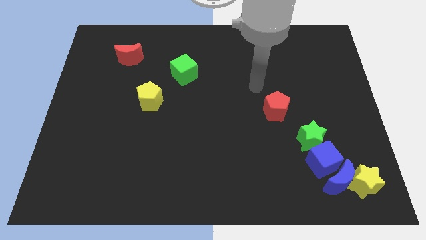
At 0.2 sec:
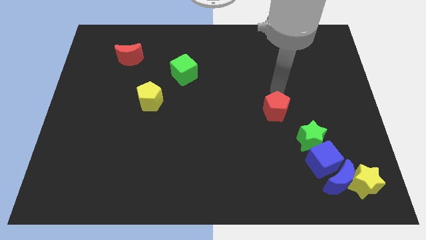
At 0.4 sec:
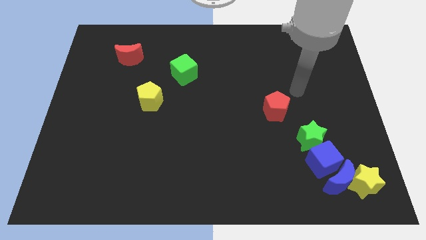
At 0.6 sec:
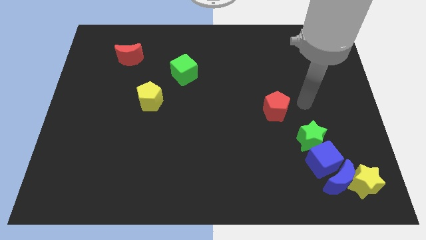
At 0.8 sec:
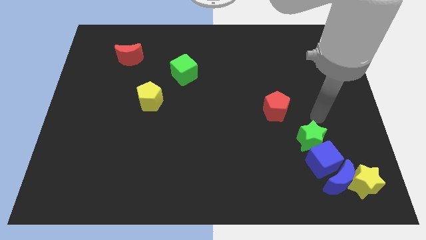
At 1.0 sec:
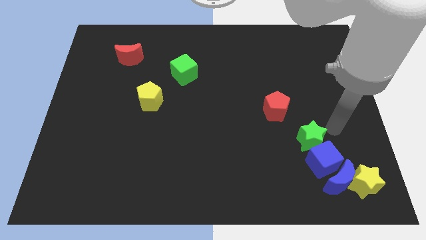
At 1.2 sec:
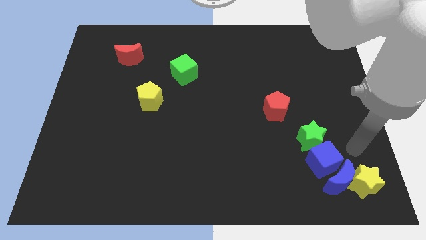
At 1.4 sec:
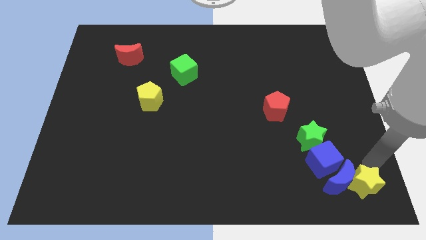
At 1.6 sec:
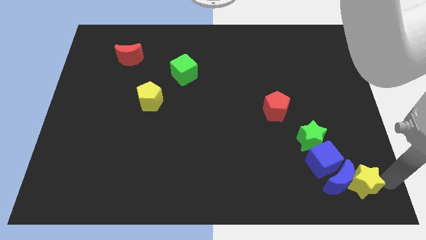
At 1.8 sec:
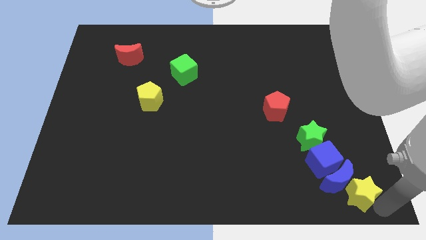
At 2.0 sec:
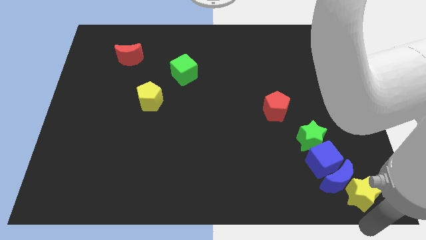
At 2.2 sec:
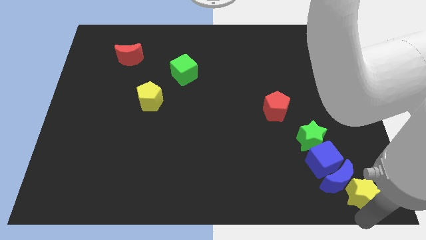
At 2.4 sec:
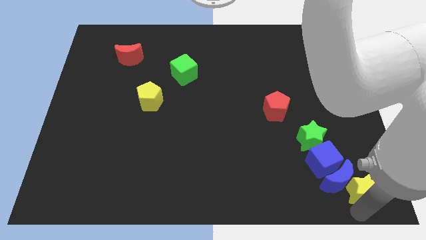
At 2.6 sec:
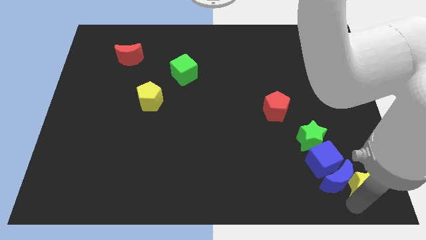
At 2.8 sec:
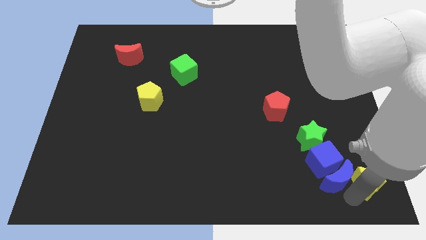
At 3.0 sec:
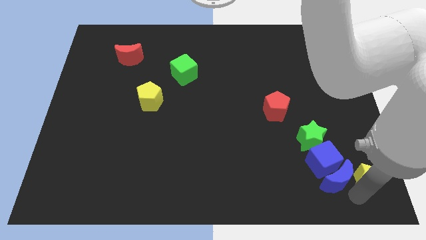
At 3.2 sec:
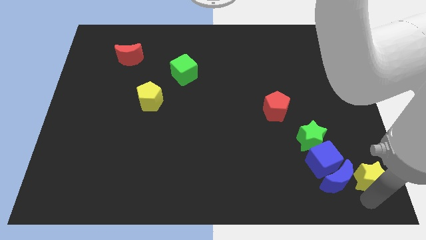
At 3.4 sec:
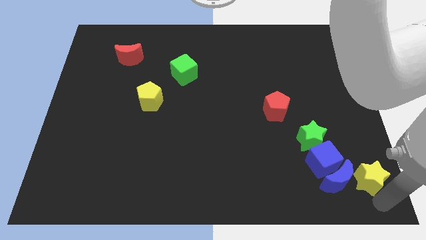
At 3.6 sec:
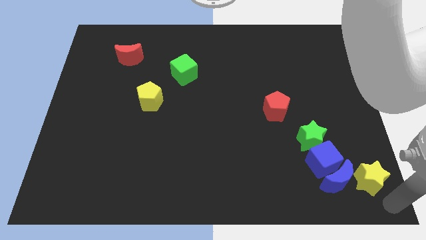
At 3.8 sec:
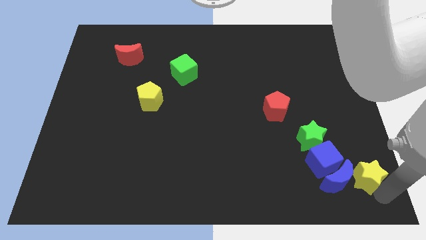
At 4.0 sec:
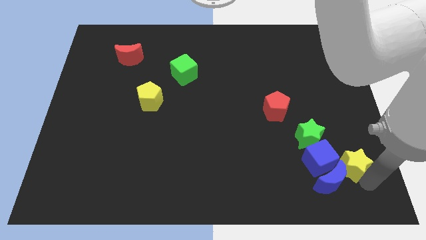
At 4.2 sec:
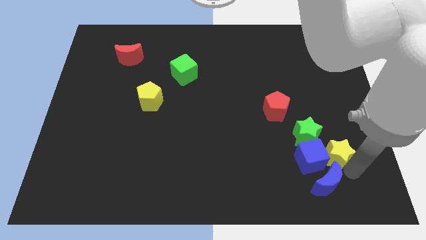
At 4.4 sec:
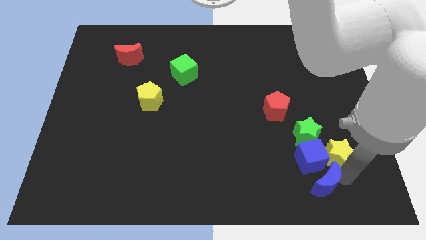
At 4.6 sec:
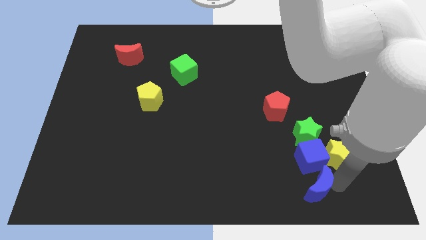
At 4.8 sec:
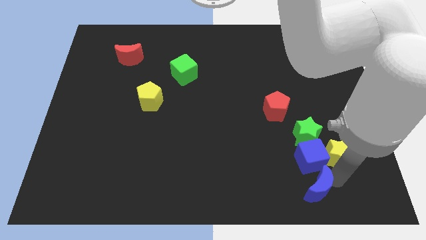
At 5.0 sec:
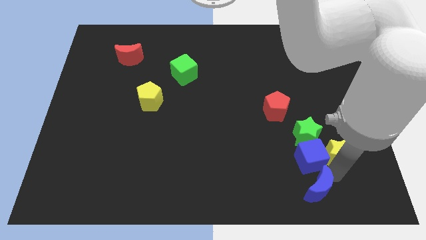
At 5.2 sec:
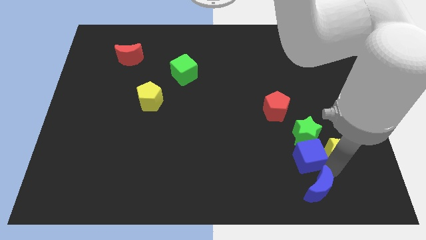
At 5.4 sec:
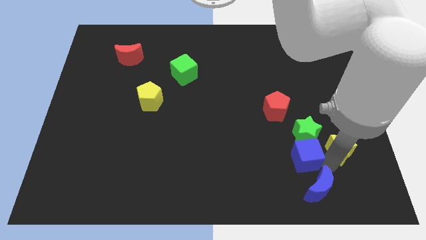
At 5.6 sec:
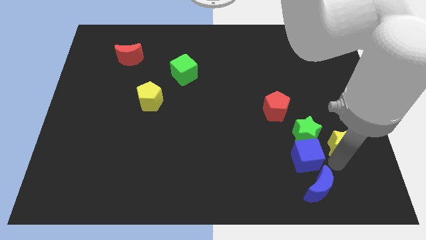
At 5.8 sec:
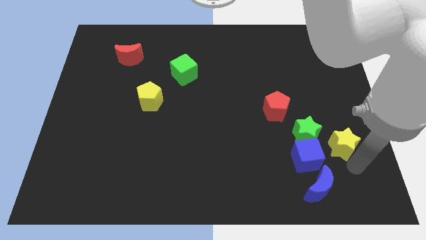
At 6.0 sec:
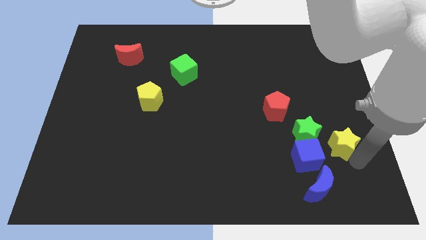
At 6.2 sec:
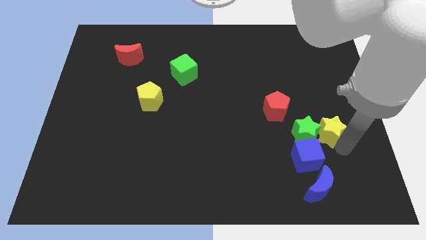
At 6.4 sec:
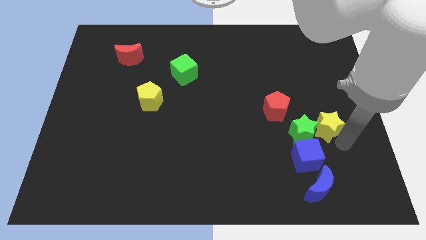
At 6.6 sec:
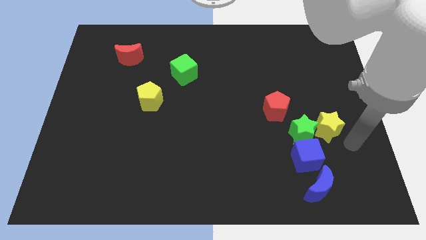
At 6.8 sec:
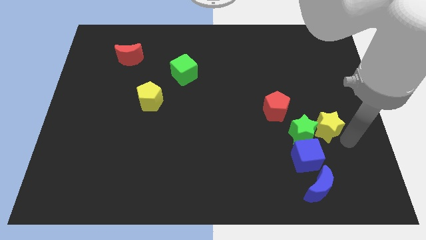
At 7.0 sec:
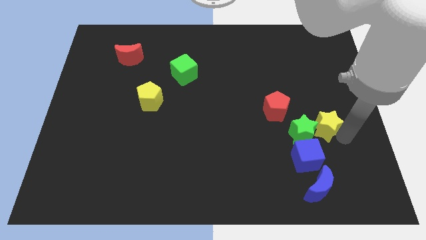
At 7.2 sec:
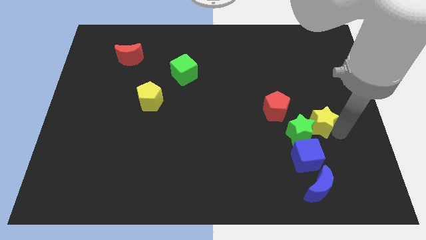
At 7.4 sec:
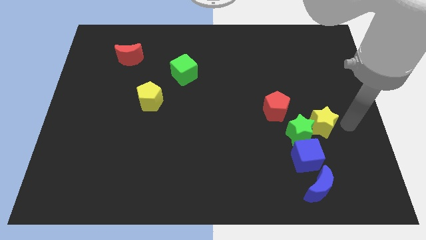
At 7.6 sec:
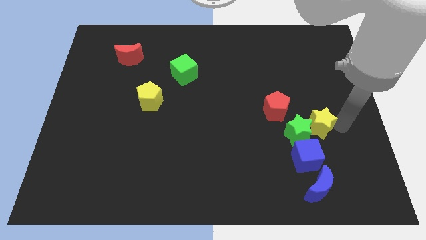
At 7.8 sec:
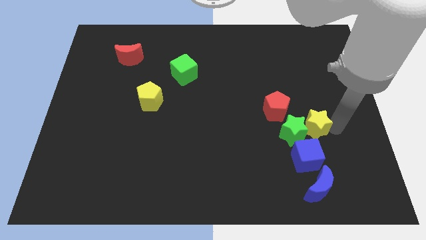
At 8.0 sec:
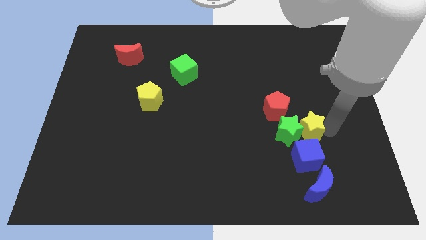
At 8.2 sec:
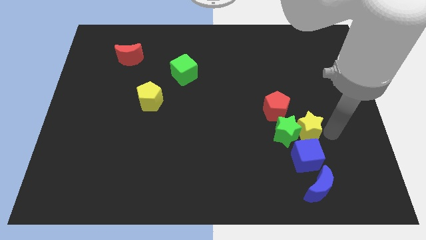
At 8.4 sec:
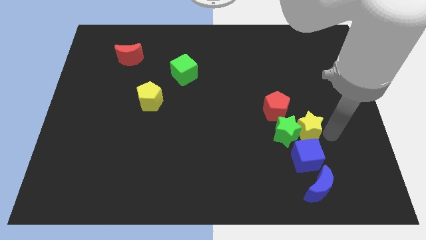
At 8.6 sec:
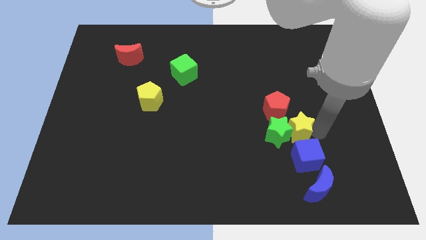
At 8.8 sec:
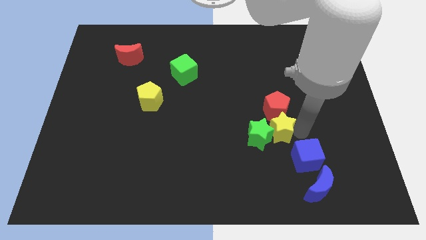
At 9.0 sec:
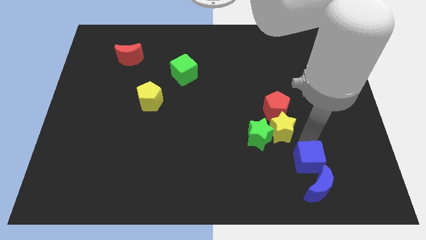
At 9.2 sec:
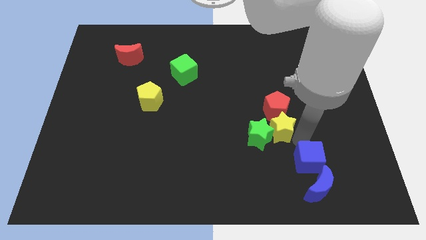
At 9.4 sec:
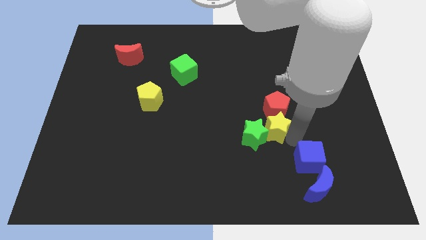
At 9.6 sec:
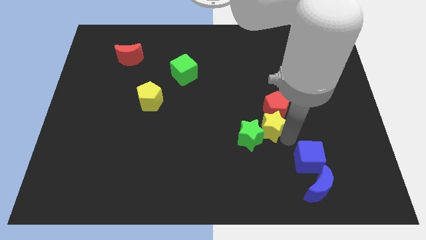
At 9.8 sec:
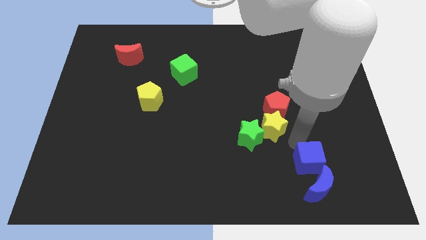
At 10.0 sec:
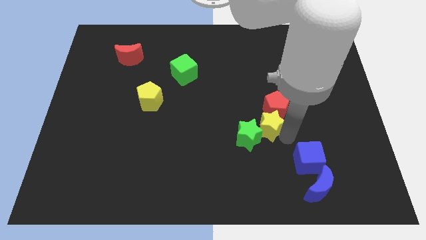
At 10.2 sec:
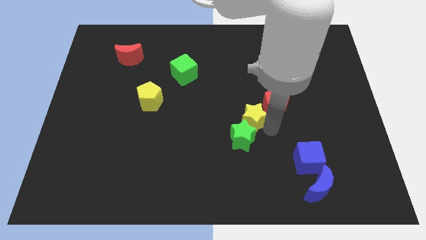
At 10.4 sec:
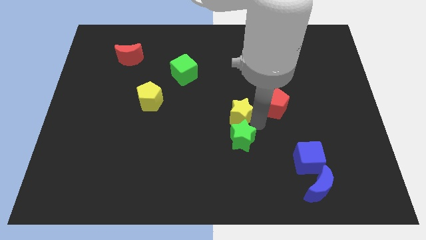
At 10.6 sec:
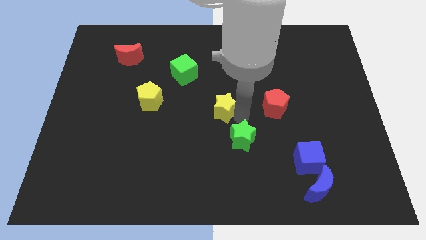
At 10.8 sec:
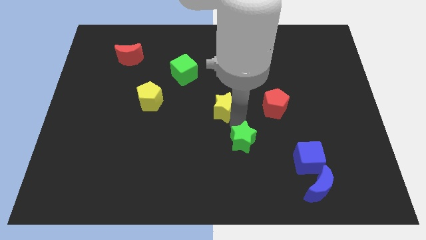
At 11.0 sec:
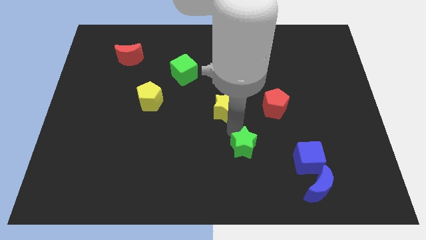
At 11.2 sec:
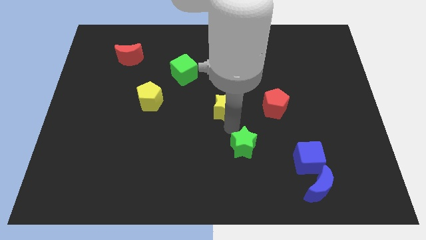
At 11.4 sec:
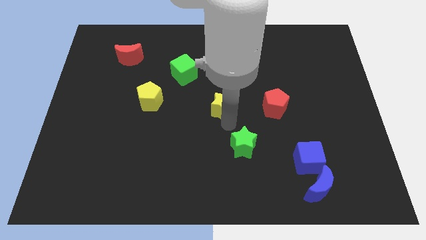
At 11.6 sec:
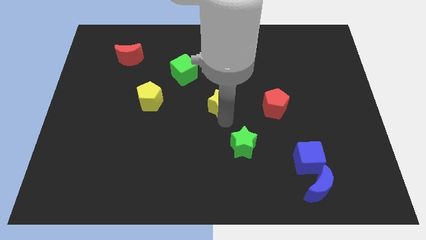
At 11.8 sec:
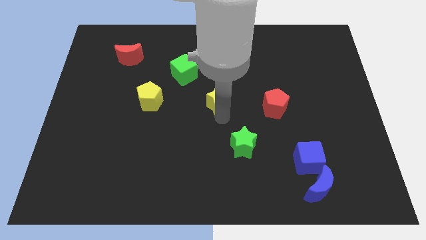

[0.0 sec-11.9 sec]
push the yellow star to the bottom right side of the green cube

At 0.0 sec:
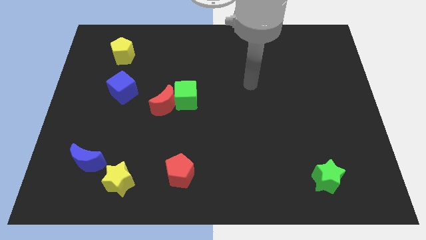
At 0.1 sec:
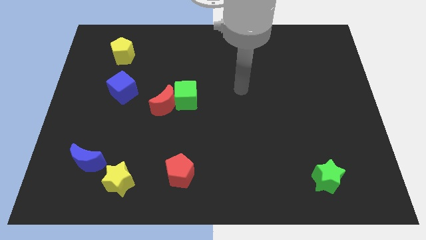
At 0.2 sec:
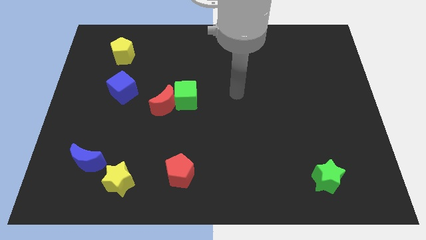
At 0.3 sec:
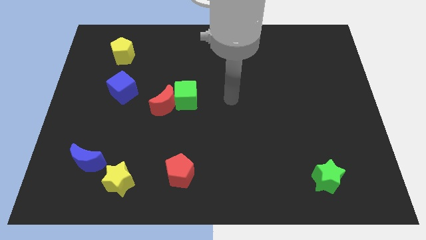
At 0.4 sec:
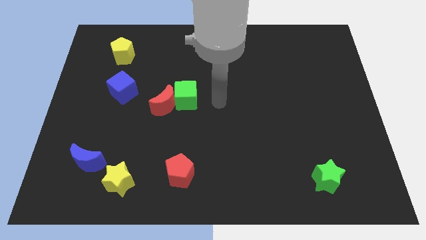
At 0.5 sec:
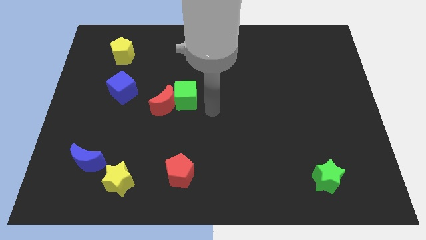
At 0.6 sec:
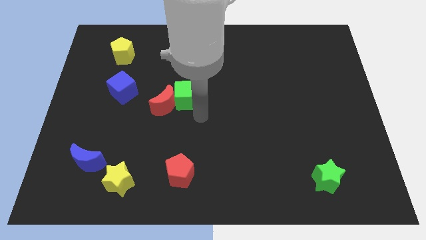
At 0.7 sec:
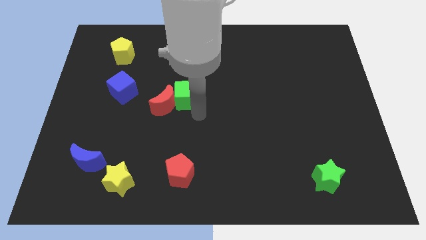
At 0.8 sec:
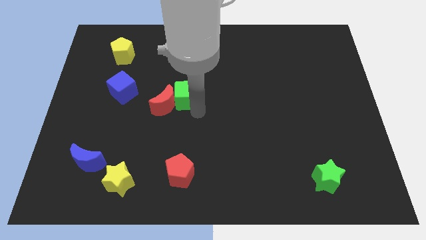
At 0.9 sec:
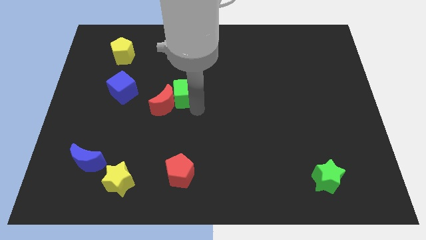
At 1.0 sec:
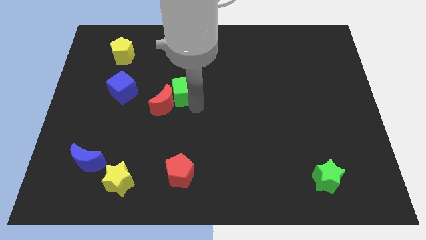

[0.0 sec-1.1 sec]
push the green cube to the top side of the red moon
